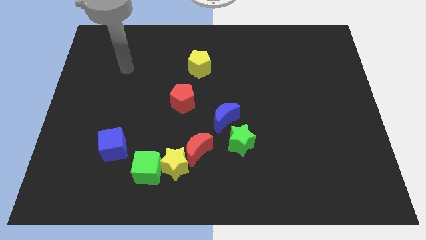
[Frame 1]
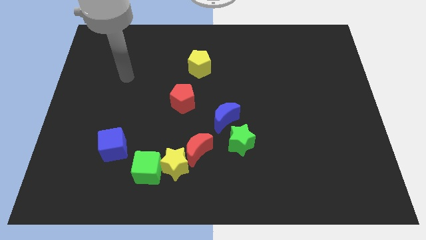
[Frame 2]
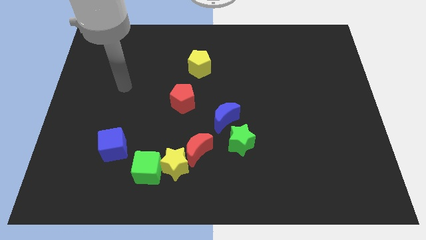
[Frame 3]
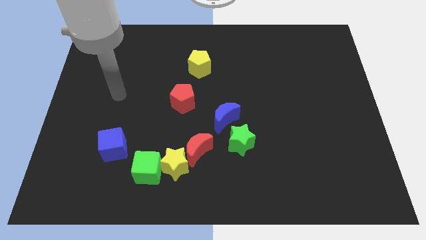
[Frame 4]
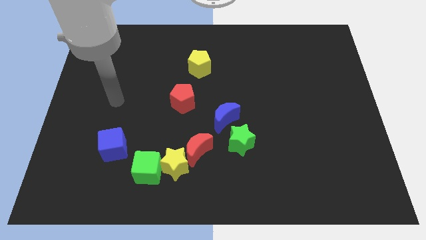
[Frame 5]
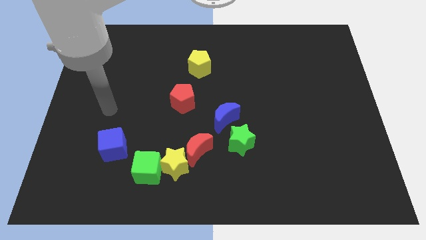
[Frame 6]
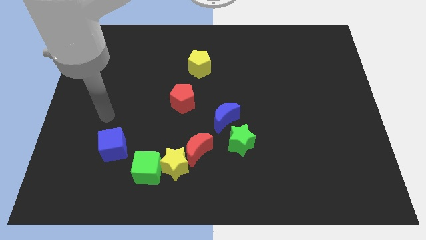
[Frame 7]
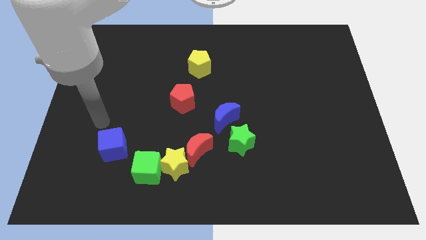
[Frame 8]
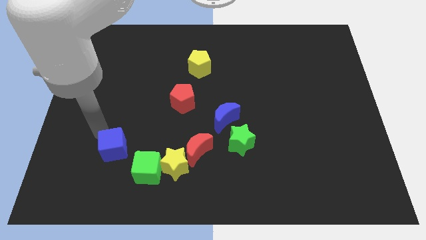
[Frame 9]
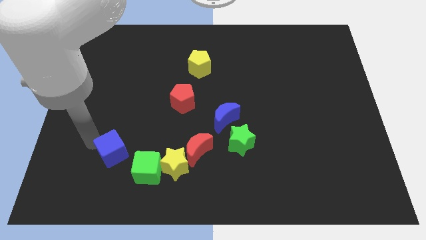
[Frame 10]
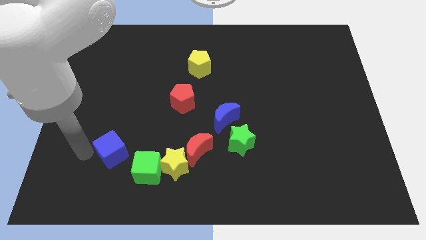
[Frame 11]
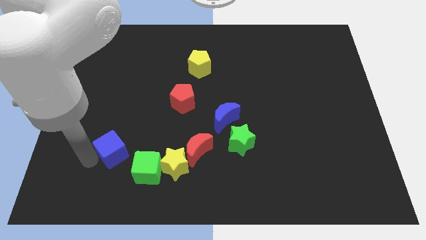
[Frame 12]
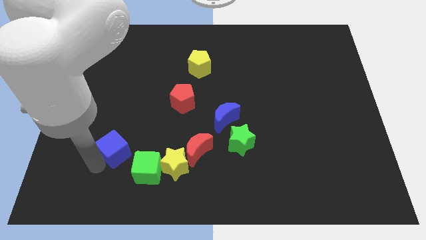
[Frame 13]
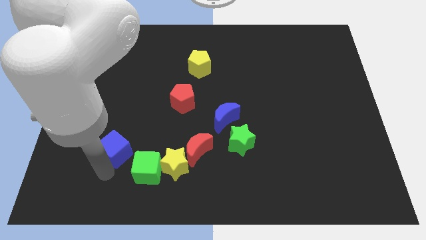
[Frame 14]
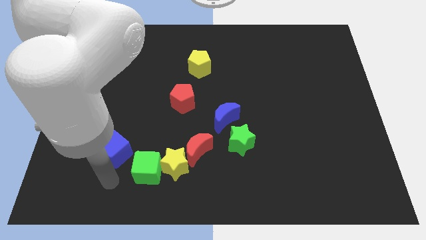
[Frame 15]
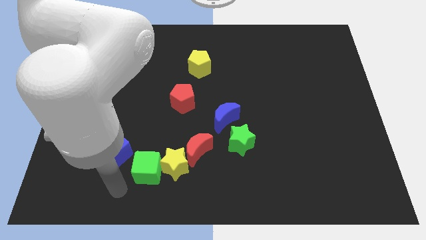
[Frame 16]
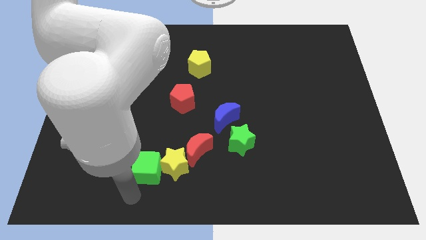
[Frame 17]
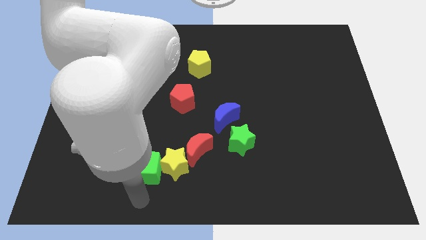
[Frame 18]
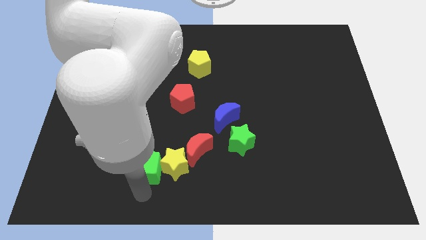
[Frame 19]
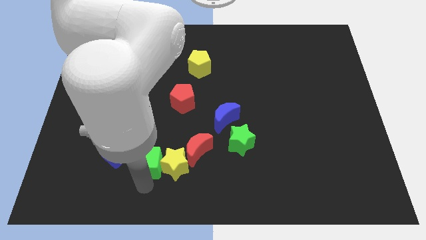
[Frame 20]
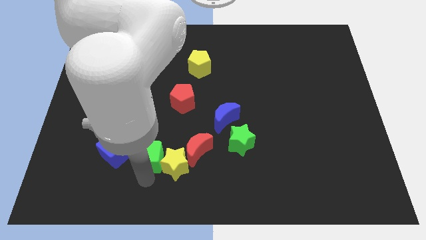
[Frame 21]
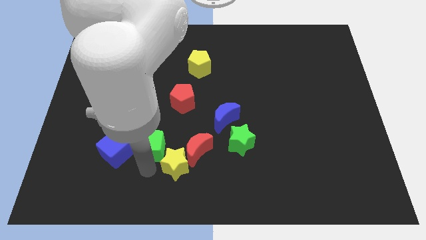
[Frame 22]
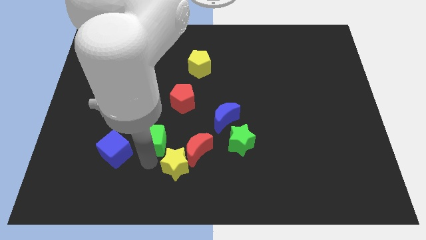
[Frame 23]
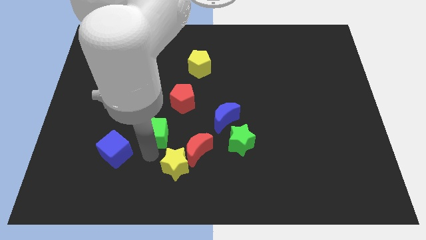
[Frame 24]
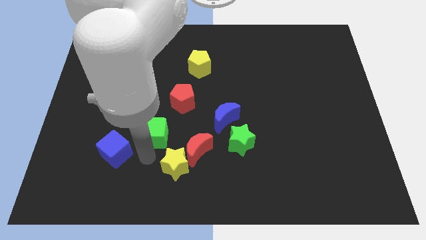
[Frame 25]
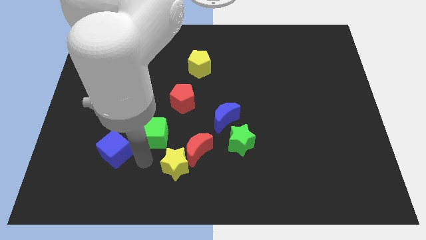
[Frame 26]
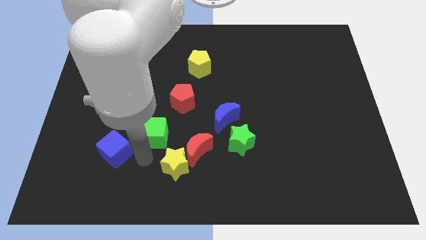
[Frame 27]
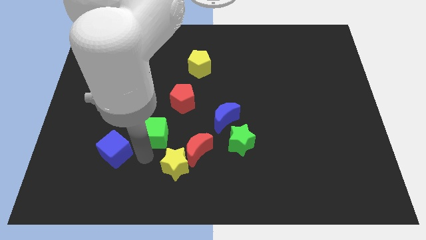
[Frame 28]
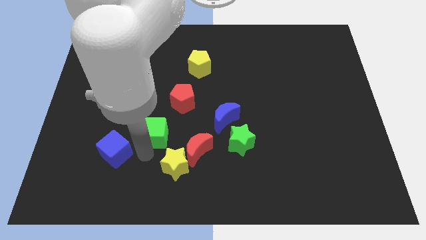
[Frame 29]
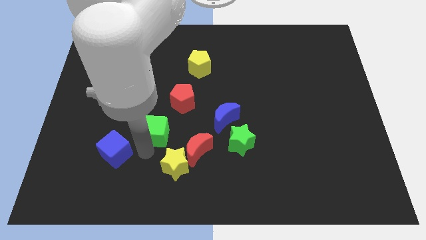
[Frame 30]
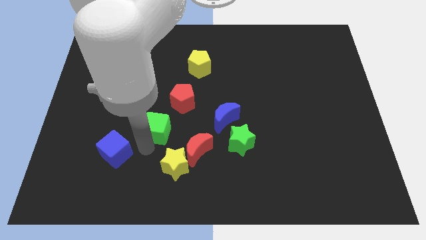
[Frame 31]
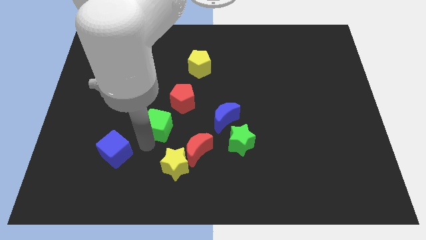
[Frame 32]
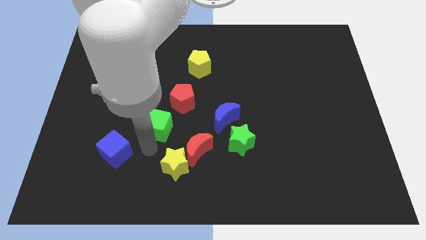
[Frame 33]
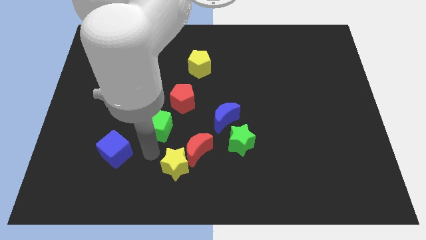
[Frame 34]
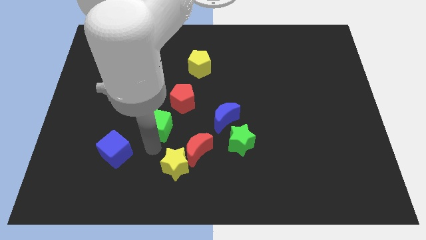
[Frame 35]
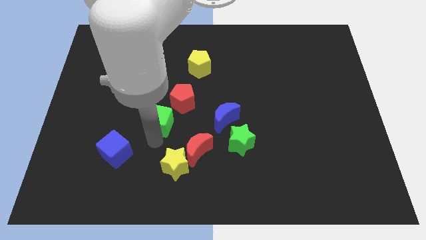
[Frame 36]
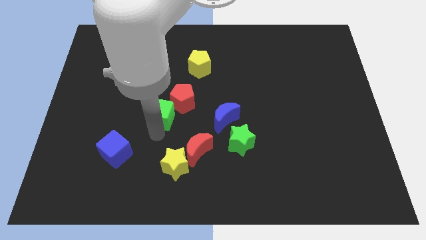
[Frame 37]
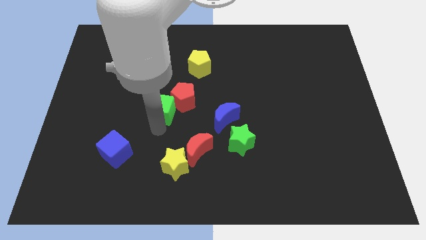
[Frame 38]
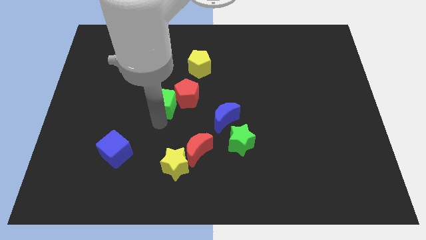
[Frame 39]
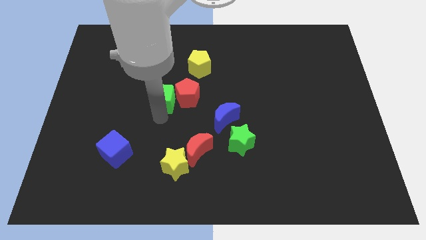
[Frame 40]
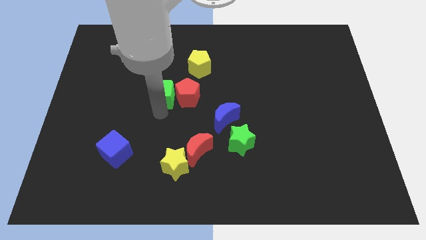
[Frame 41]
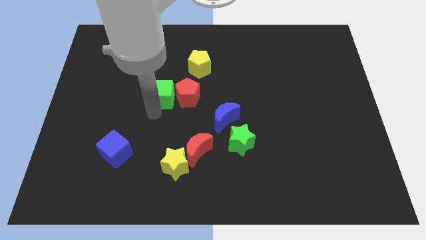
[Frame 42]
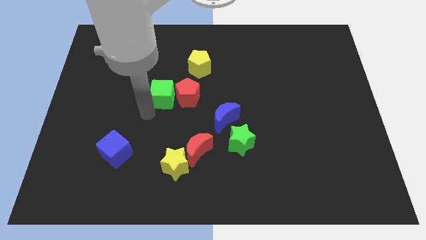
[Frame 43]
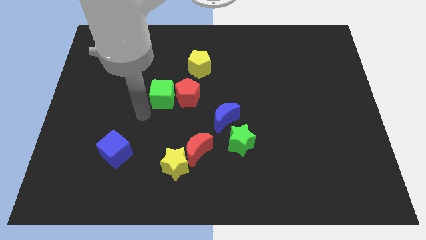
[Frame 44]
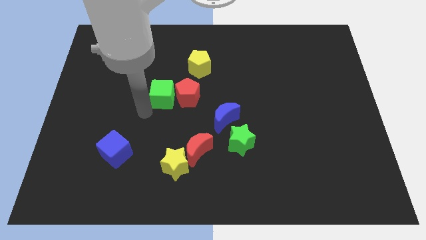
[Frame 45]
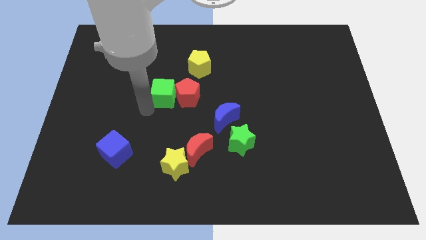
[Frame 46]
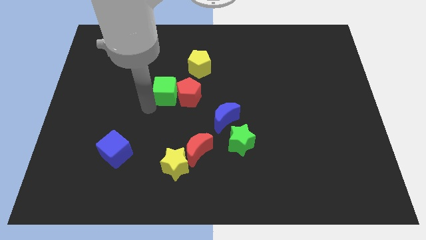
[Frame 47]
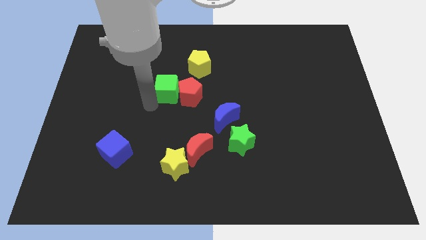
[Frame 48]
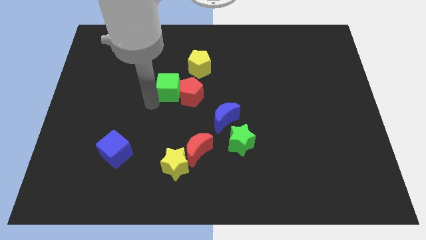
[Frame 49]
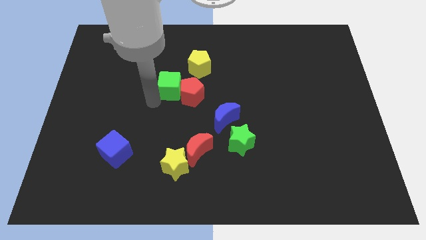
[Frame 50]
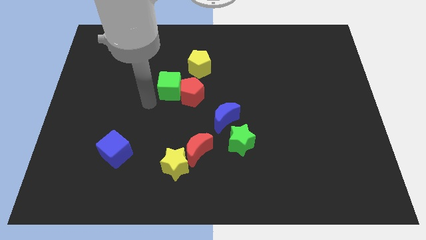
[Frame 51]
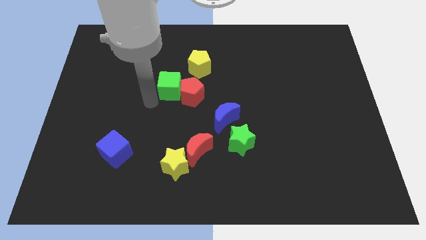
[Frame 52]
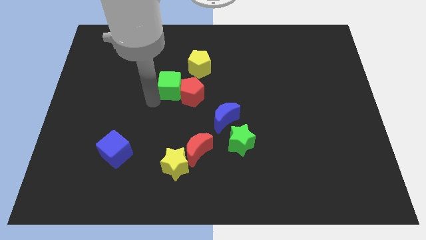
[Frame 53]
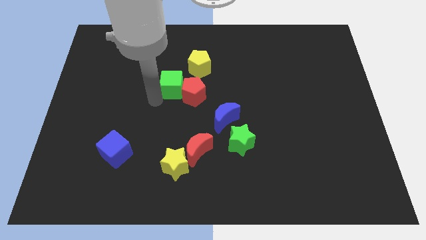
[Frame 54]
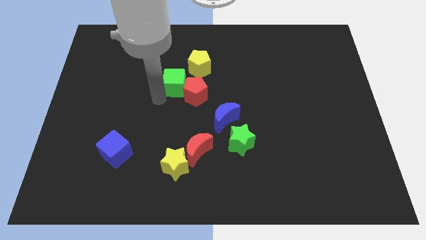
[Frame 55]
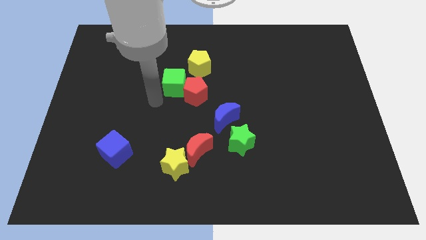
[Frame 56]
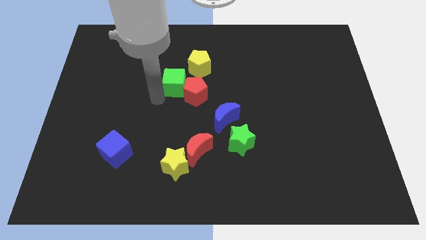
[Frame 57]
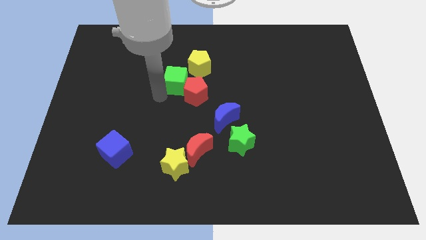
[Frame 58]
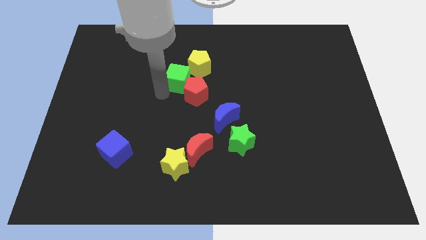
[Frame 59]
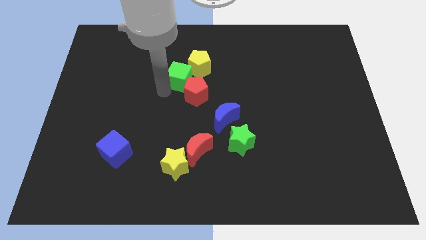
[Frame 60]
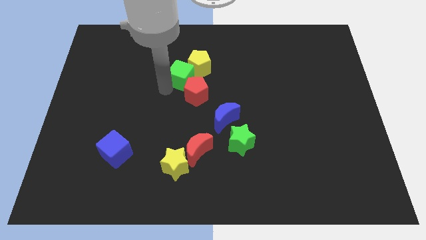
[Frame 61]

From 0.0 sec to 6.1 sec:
put the green cube close to the yellow pentagon

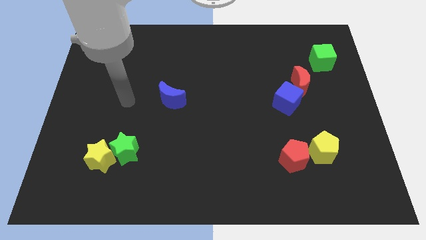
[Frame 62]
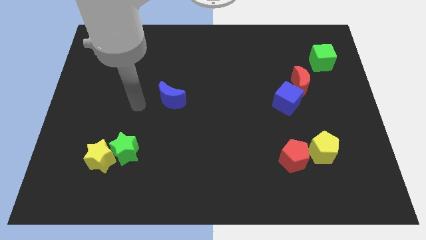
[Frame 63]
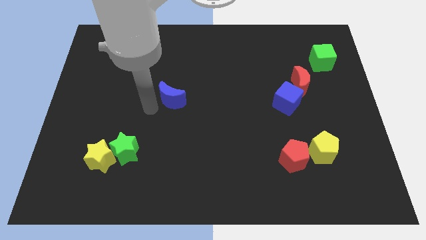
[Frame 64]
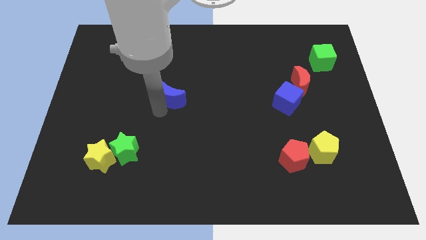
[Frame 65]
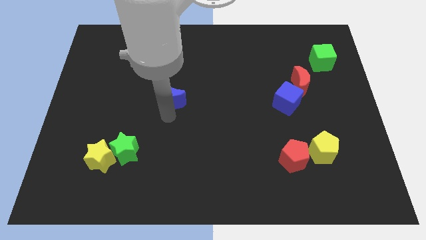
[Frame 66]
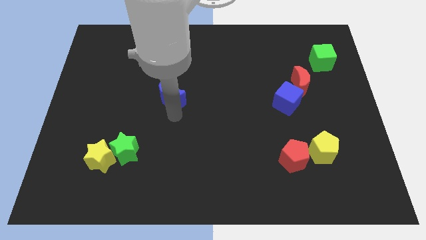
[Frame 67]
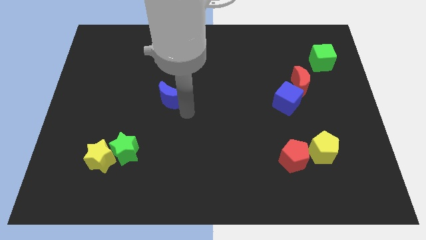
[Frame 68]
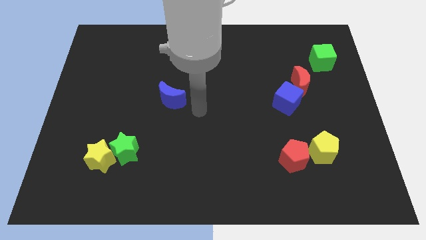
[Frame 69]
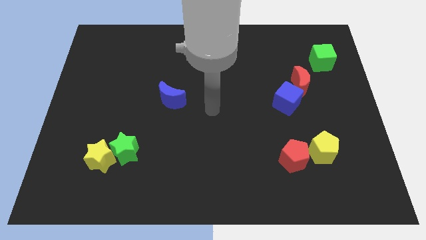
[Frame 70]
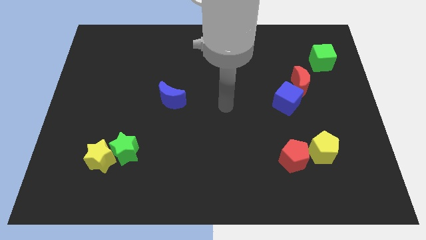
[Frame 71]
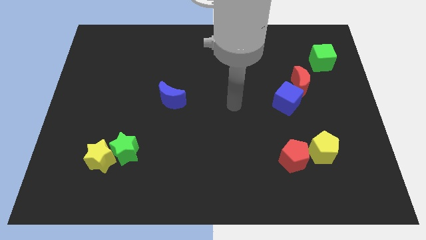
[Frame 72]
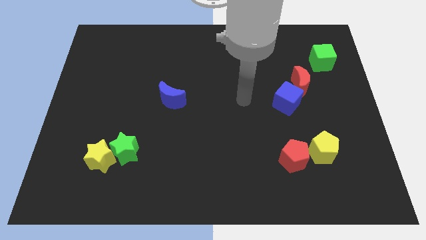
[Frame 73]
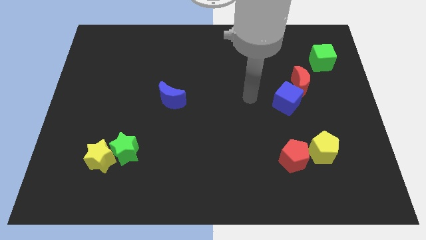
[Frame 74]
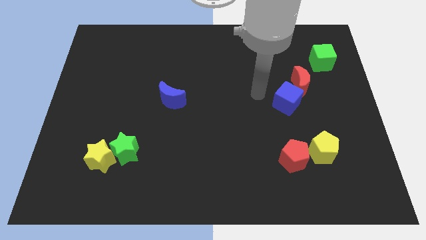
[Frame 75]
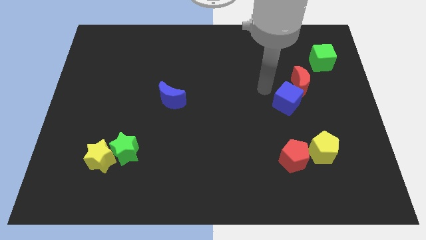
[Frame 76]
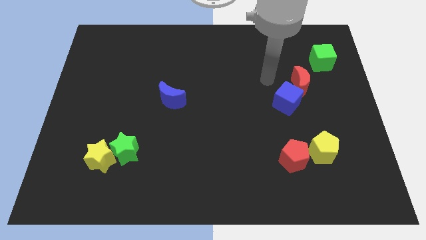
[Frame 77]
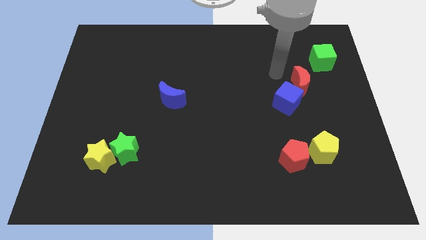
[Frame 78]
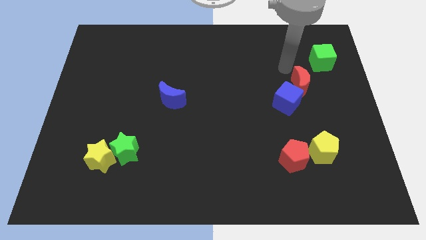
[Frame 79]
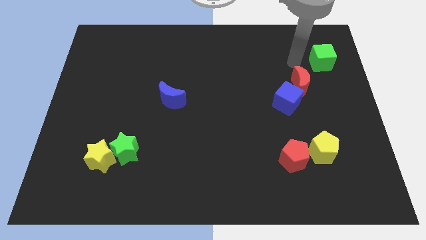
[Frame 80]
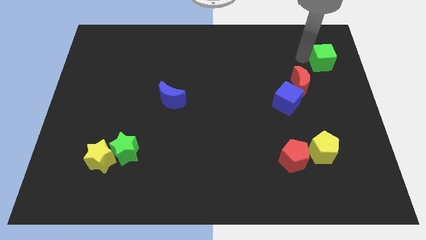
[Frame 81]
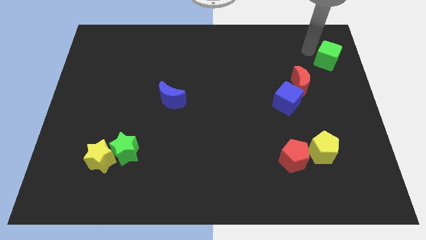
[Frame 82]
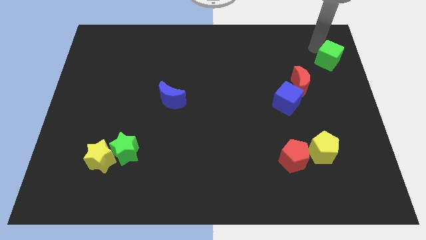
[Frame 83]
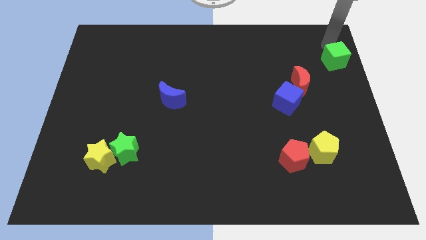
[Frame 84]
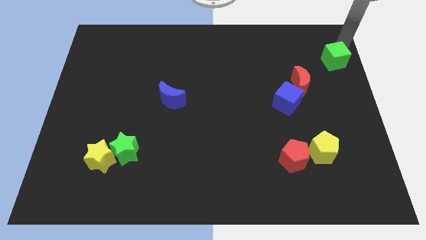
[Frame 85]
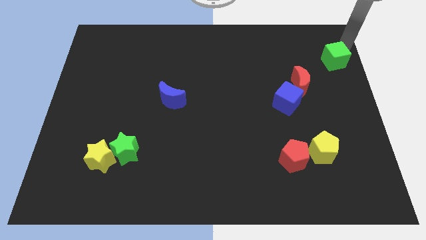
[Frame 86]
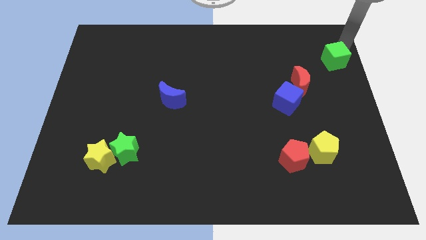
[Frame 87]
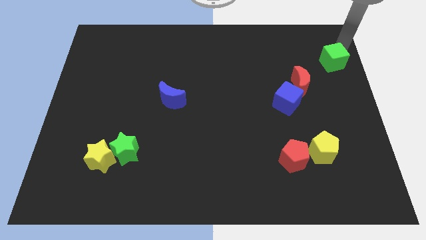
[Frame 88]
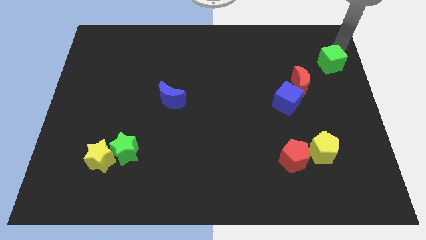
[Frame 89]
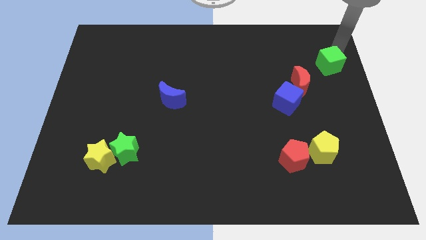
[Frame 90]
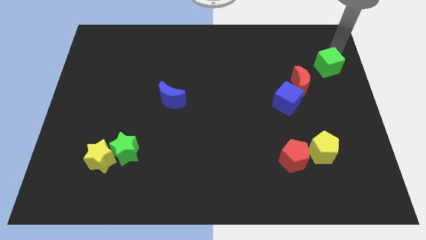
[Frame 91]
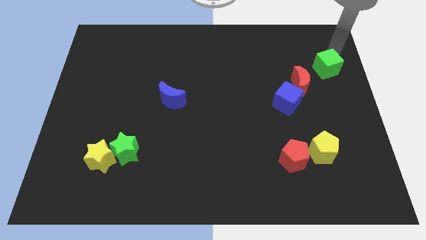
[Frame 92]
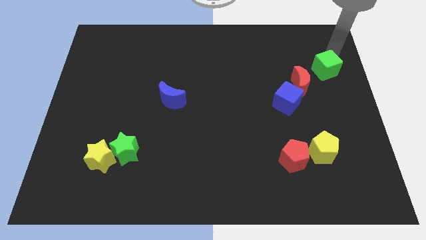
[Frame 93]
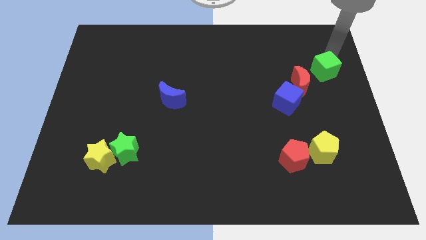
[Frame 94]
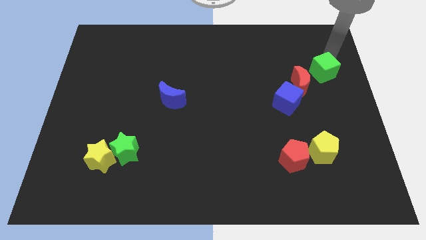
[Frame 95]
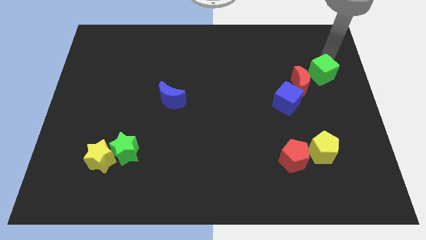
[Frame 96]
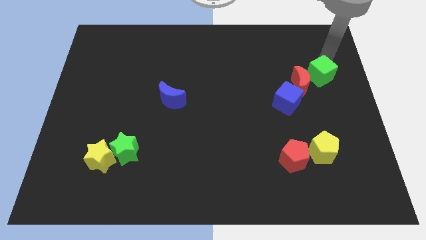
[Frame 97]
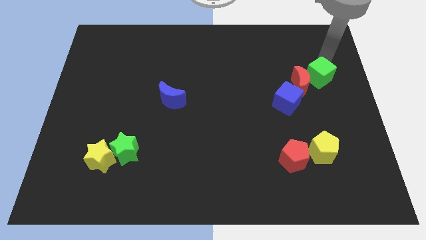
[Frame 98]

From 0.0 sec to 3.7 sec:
push the green cube close to the red moon
